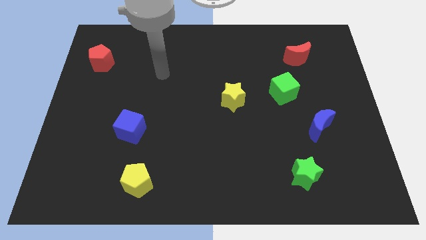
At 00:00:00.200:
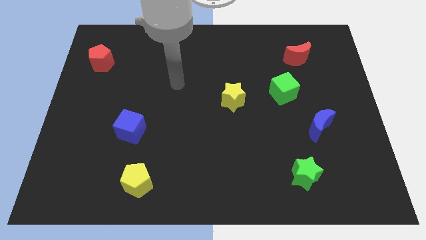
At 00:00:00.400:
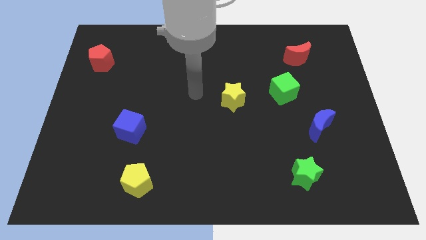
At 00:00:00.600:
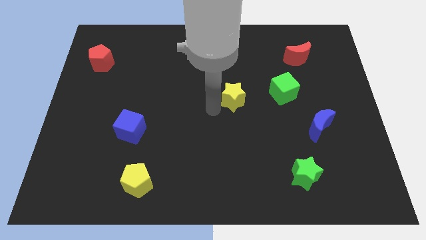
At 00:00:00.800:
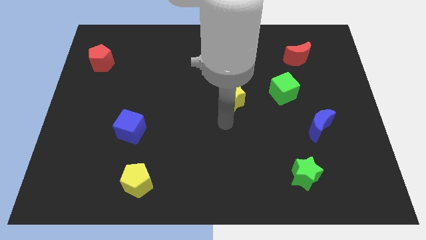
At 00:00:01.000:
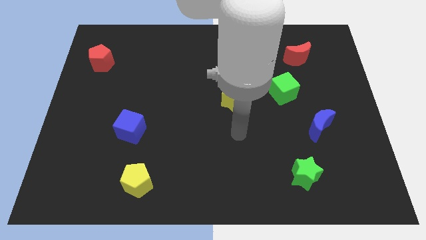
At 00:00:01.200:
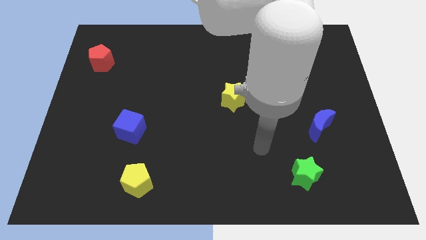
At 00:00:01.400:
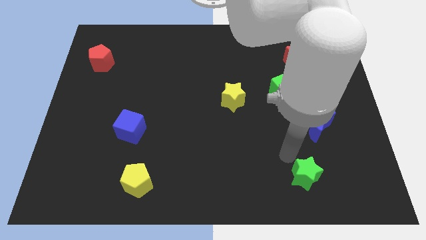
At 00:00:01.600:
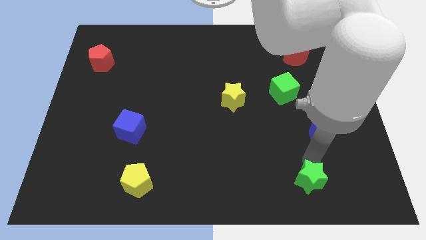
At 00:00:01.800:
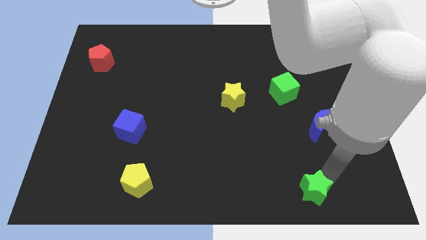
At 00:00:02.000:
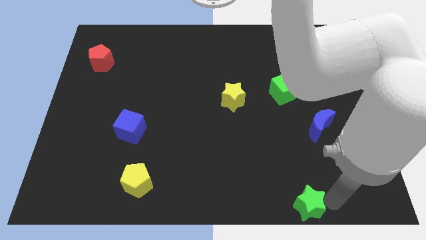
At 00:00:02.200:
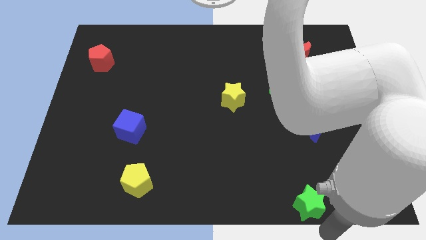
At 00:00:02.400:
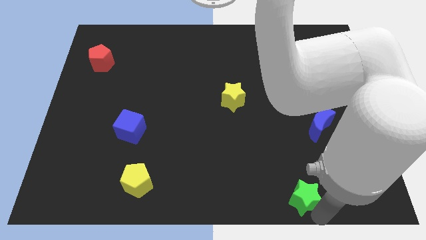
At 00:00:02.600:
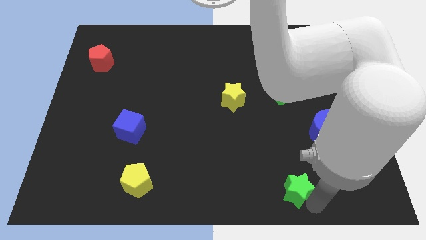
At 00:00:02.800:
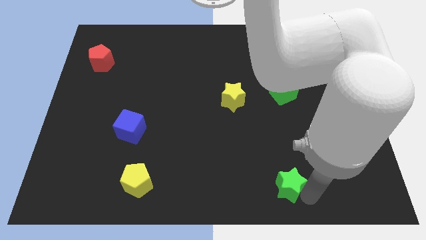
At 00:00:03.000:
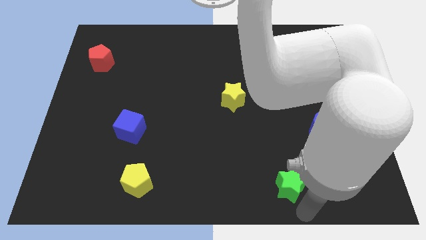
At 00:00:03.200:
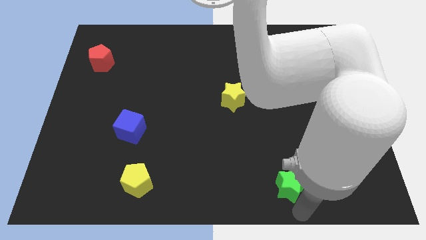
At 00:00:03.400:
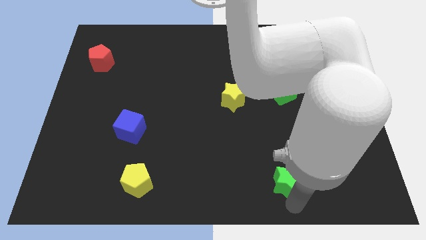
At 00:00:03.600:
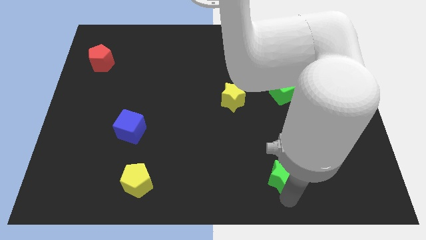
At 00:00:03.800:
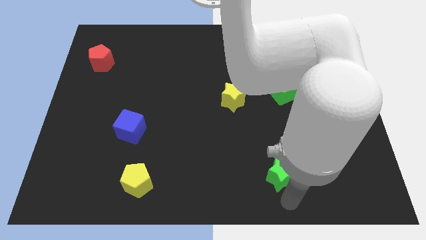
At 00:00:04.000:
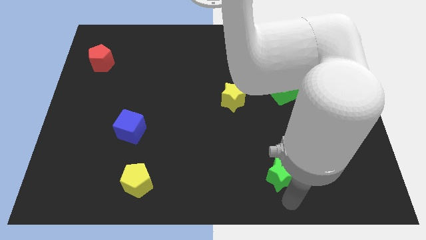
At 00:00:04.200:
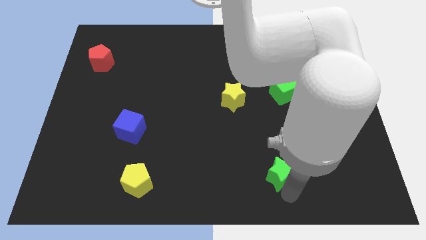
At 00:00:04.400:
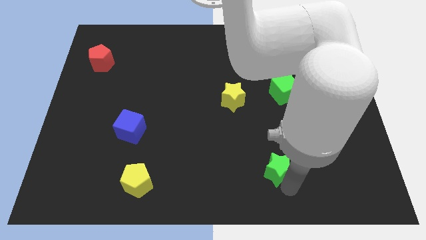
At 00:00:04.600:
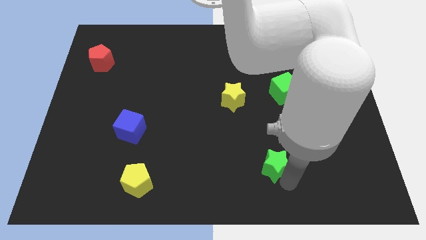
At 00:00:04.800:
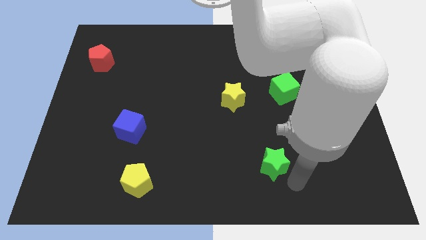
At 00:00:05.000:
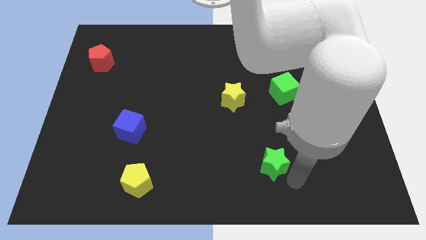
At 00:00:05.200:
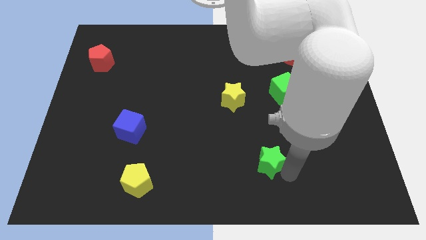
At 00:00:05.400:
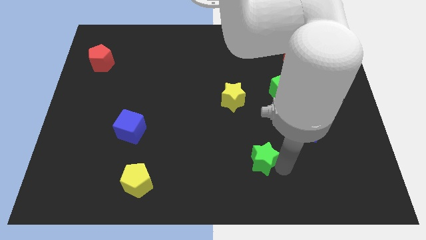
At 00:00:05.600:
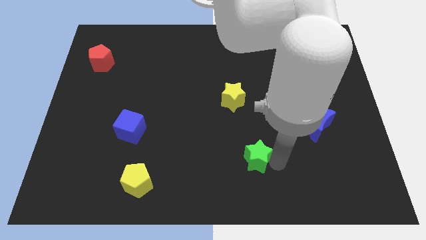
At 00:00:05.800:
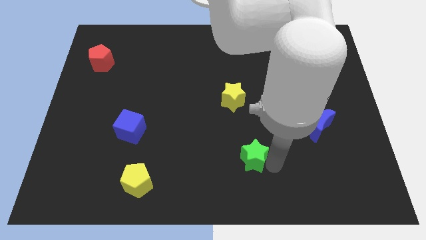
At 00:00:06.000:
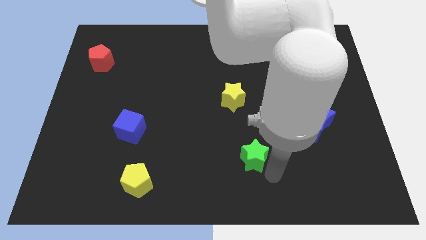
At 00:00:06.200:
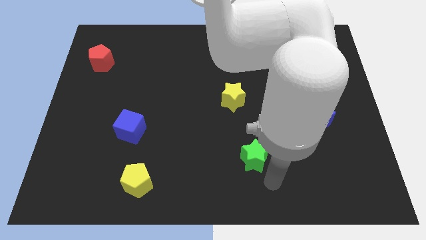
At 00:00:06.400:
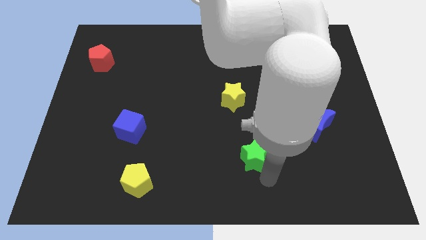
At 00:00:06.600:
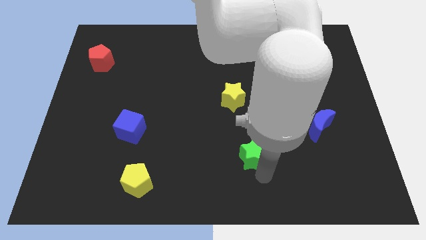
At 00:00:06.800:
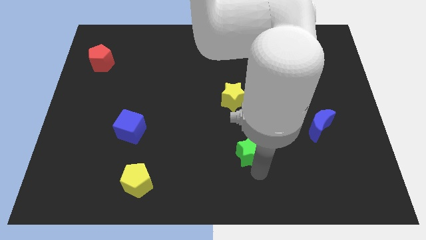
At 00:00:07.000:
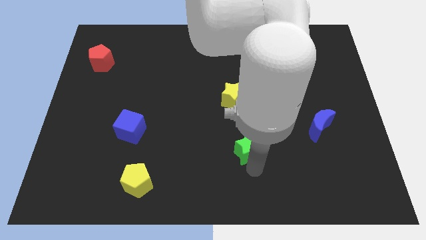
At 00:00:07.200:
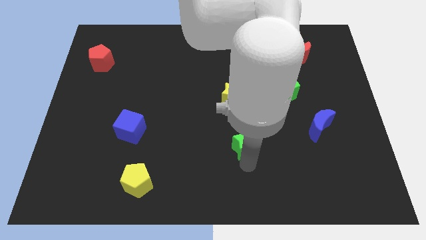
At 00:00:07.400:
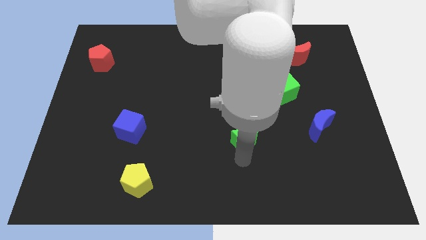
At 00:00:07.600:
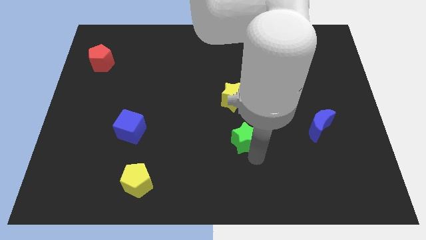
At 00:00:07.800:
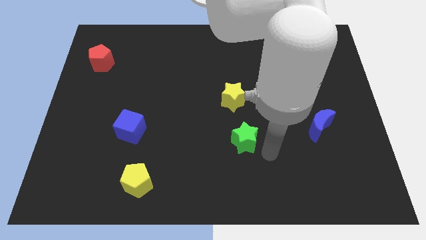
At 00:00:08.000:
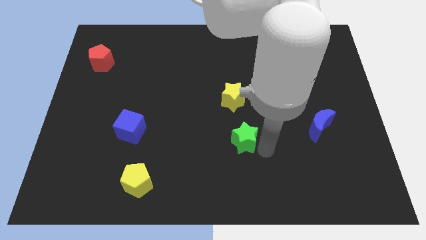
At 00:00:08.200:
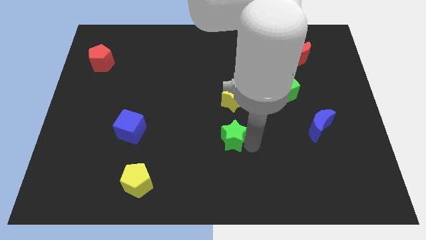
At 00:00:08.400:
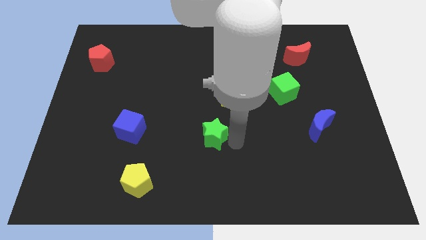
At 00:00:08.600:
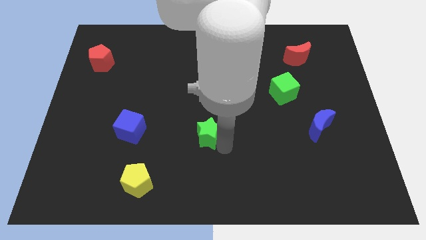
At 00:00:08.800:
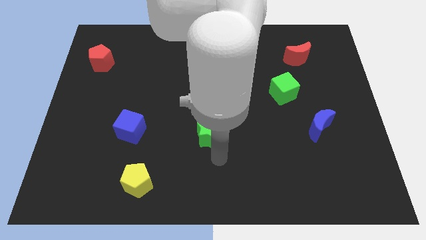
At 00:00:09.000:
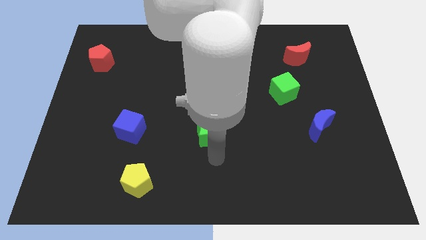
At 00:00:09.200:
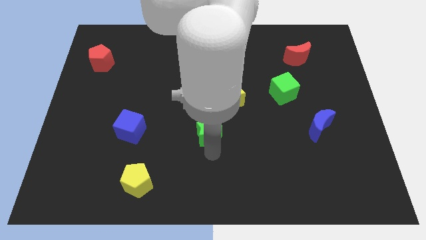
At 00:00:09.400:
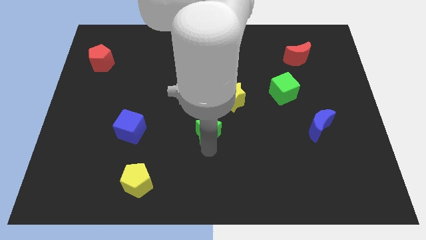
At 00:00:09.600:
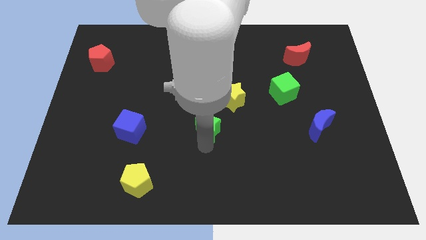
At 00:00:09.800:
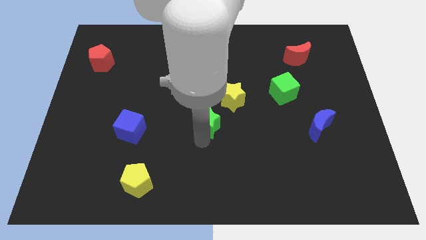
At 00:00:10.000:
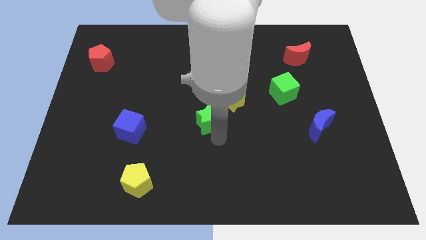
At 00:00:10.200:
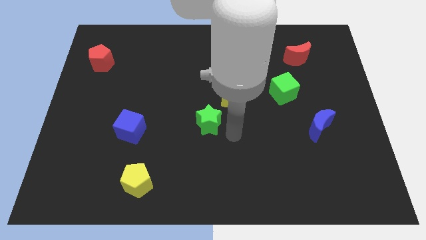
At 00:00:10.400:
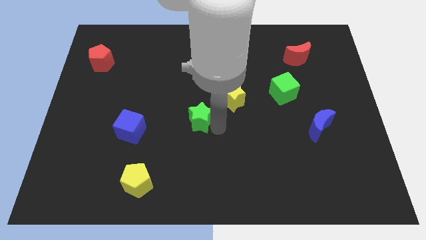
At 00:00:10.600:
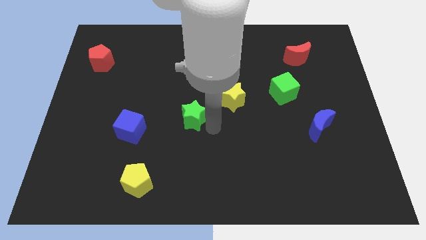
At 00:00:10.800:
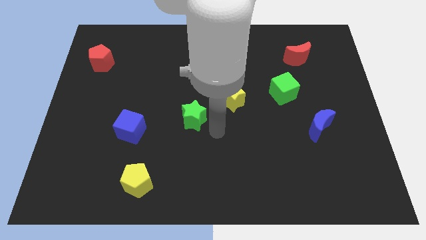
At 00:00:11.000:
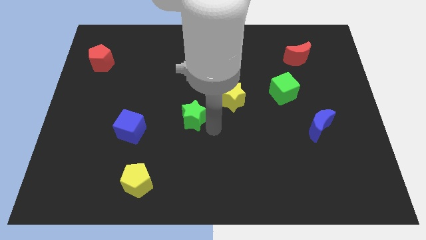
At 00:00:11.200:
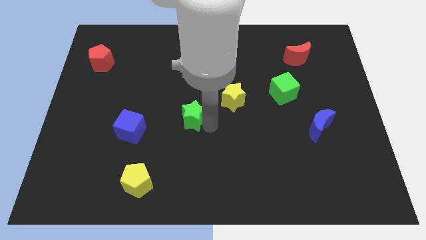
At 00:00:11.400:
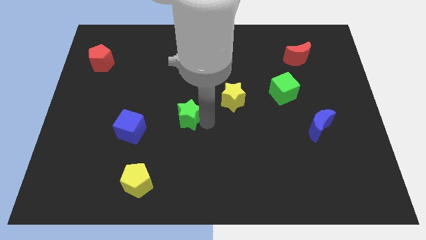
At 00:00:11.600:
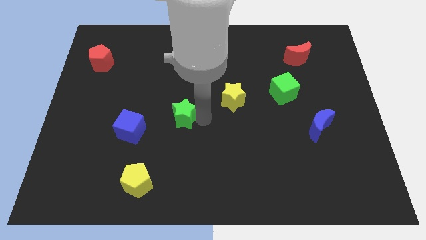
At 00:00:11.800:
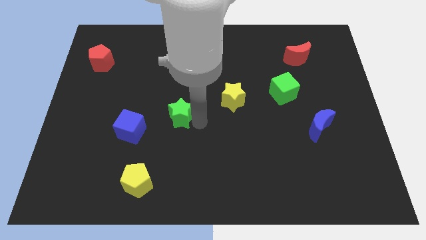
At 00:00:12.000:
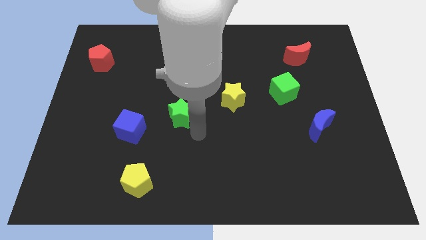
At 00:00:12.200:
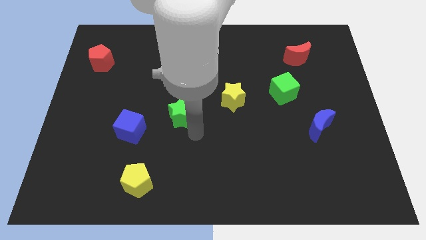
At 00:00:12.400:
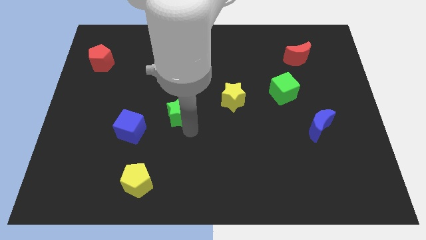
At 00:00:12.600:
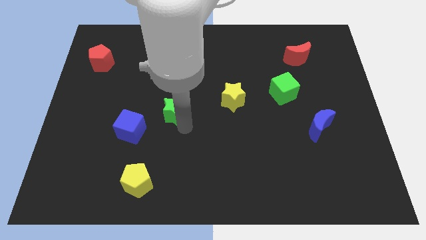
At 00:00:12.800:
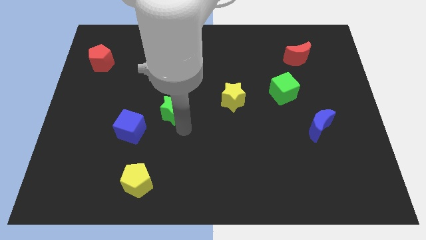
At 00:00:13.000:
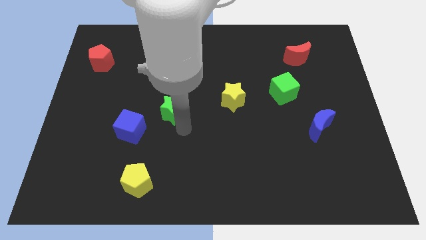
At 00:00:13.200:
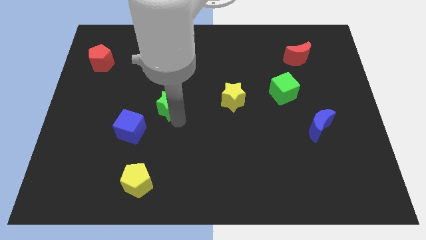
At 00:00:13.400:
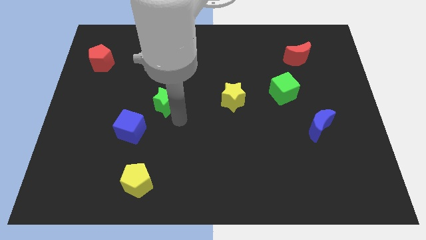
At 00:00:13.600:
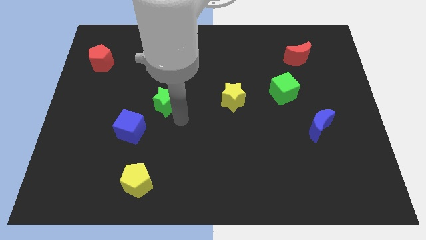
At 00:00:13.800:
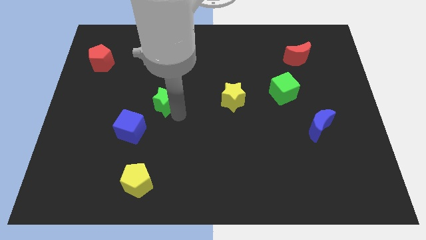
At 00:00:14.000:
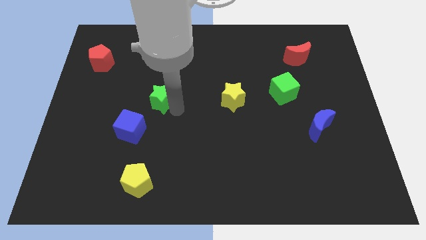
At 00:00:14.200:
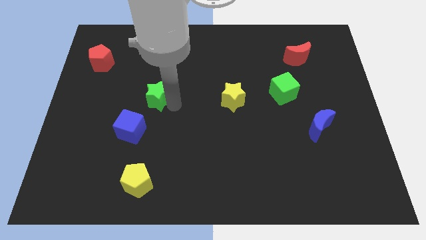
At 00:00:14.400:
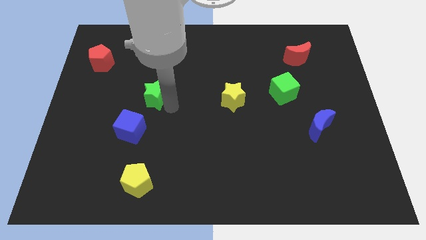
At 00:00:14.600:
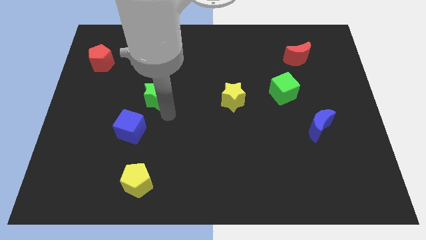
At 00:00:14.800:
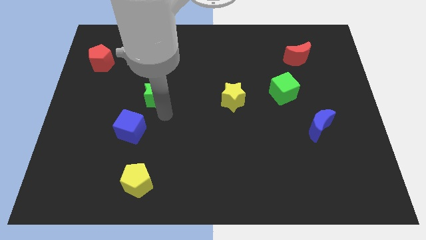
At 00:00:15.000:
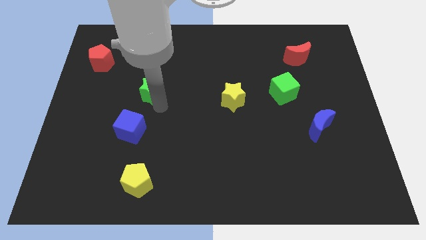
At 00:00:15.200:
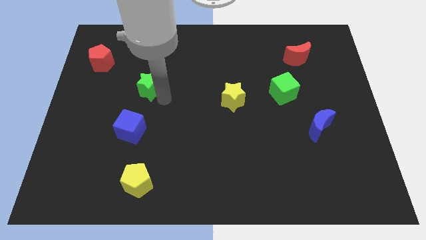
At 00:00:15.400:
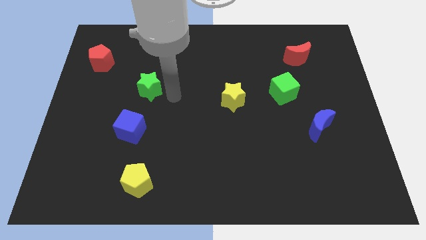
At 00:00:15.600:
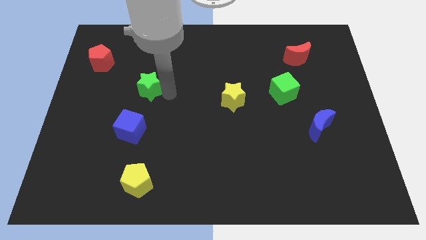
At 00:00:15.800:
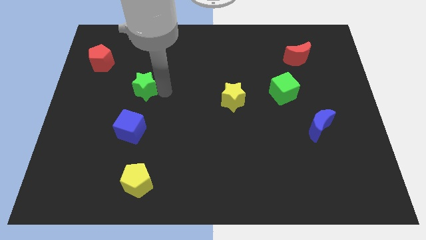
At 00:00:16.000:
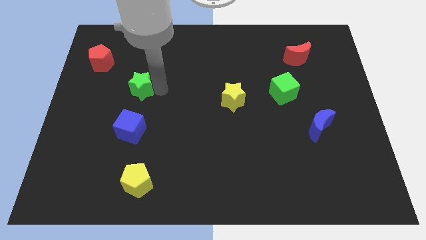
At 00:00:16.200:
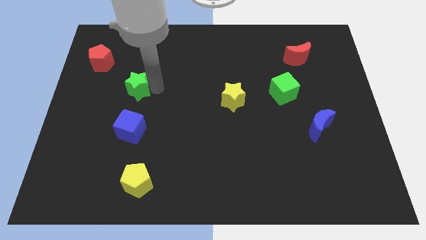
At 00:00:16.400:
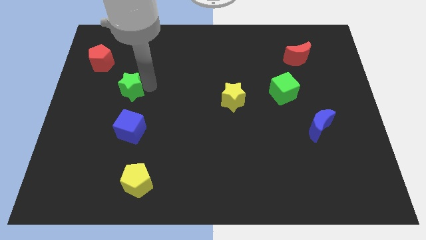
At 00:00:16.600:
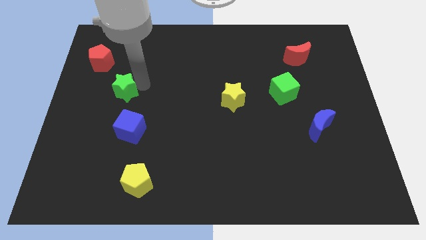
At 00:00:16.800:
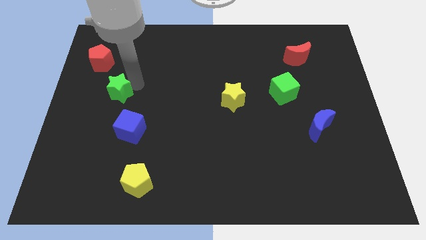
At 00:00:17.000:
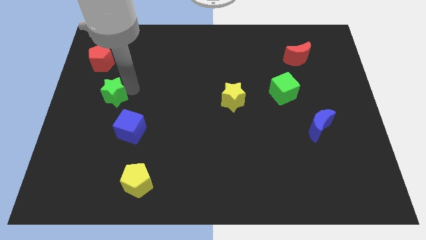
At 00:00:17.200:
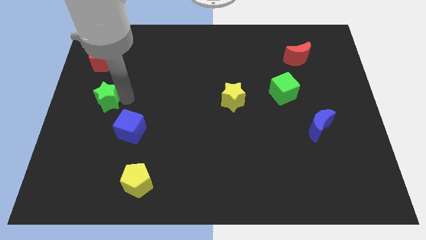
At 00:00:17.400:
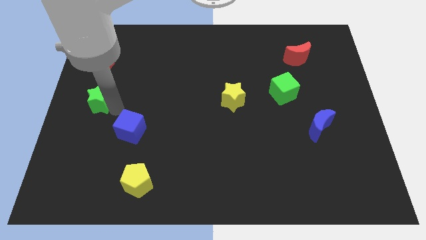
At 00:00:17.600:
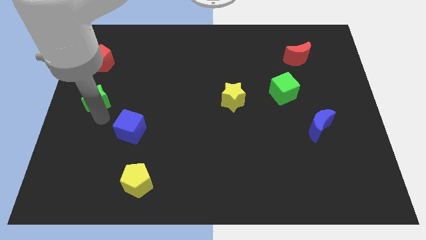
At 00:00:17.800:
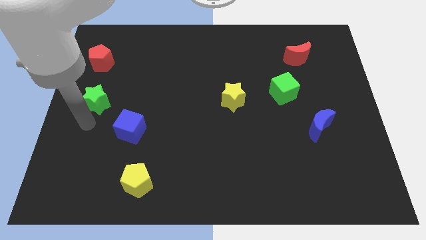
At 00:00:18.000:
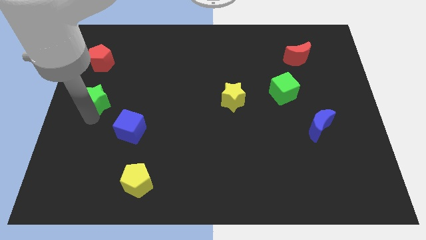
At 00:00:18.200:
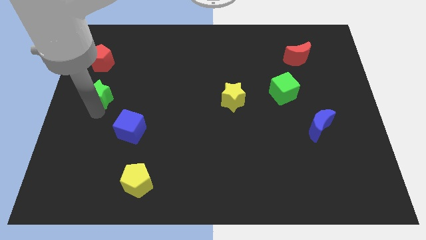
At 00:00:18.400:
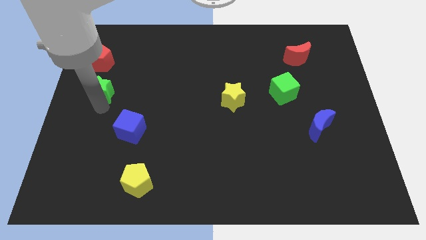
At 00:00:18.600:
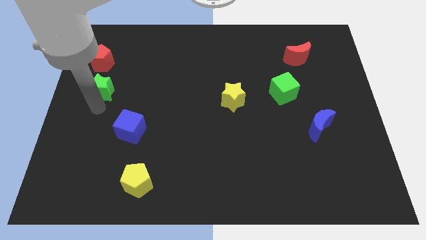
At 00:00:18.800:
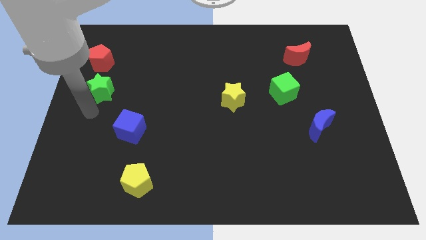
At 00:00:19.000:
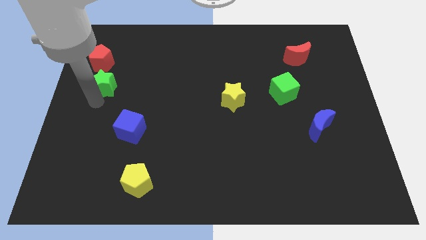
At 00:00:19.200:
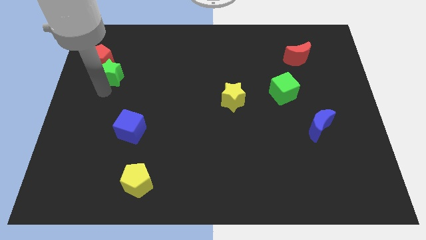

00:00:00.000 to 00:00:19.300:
push the green star next to the red pentagon
